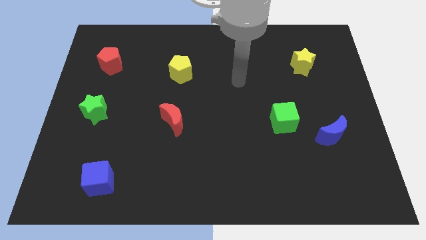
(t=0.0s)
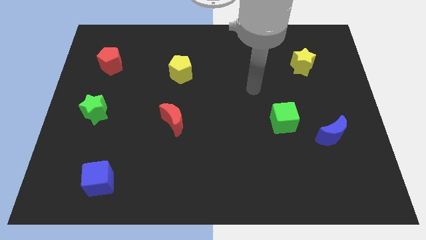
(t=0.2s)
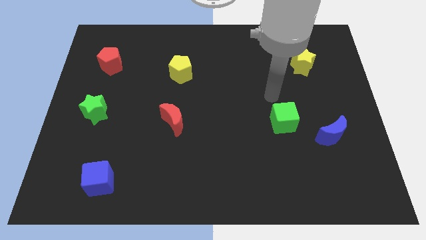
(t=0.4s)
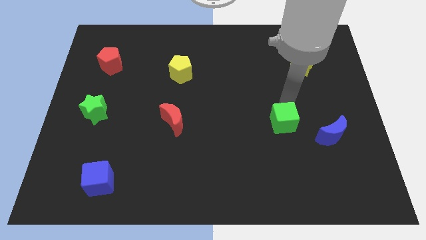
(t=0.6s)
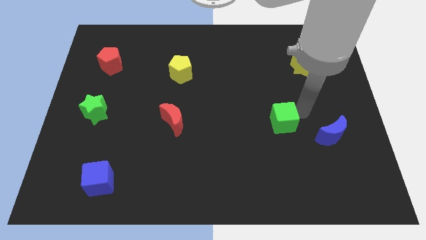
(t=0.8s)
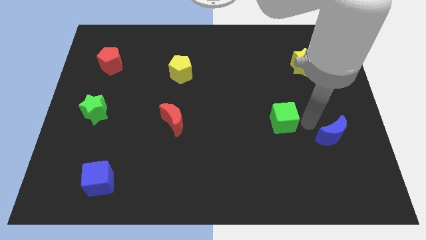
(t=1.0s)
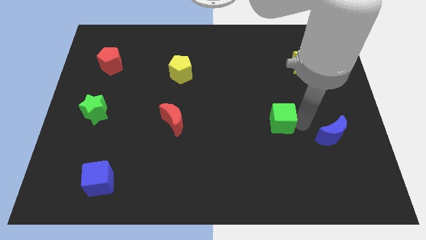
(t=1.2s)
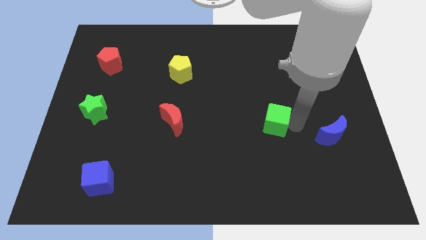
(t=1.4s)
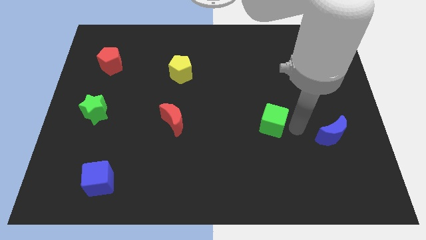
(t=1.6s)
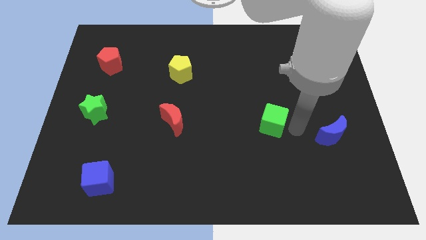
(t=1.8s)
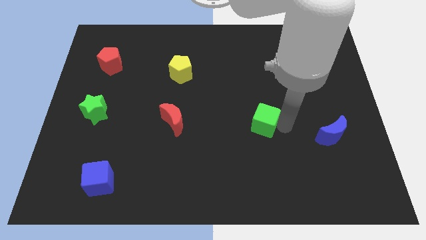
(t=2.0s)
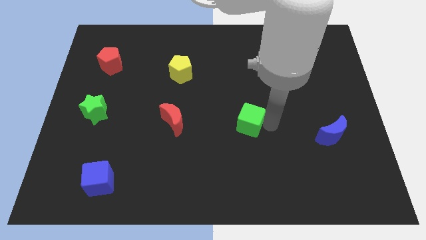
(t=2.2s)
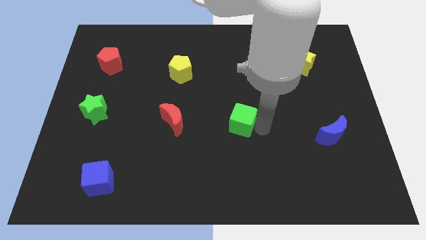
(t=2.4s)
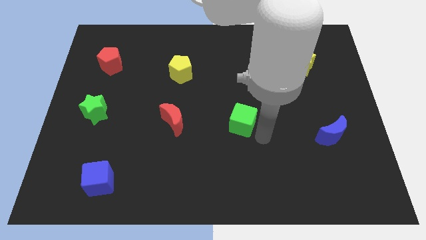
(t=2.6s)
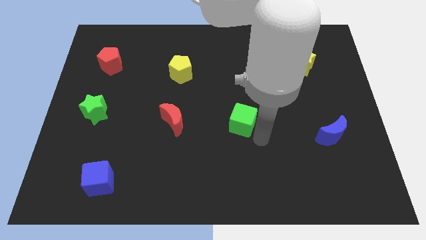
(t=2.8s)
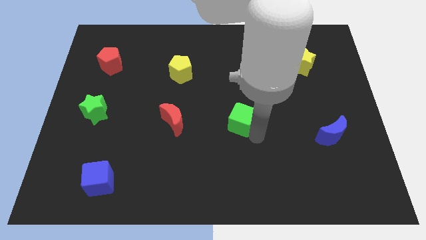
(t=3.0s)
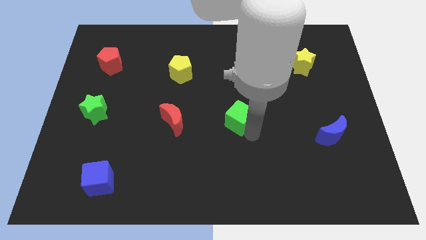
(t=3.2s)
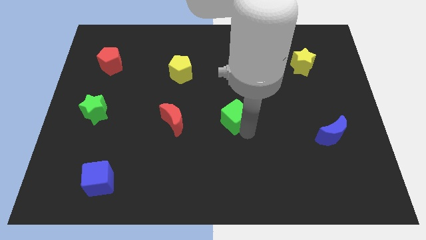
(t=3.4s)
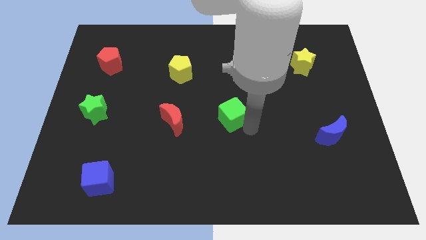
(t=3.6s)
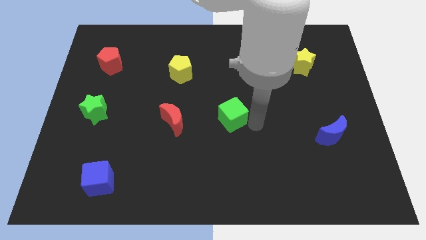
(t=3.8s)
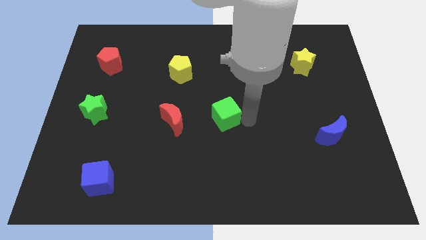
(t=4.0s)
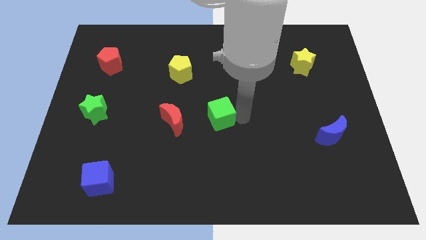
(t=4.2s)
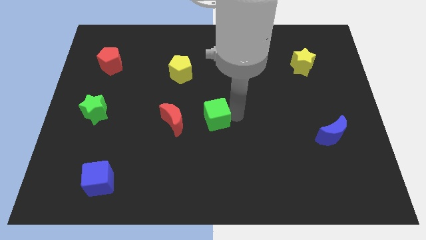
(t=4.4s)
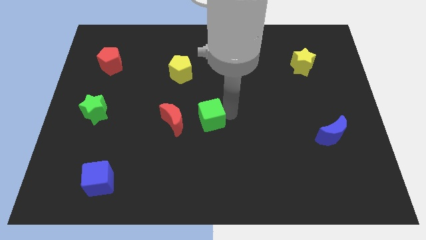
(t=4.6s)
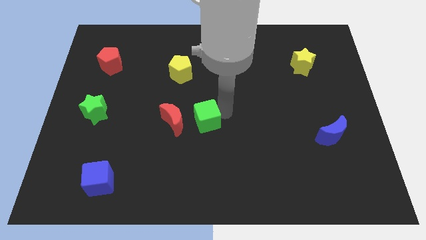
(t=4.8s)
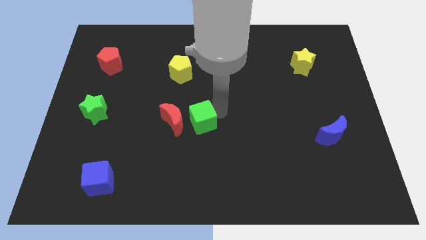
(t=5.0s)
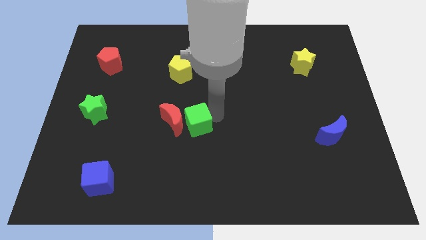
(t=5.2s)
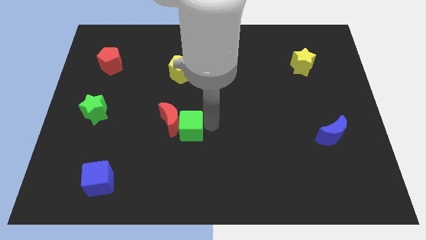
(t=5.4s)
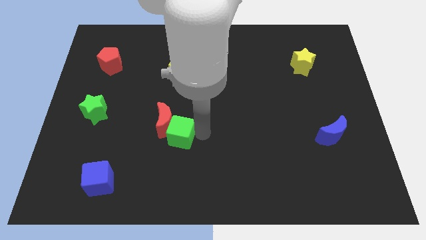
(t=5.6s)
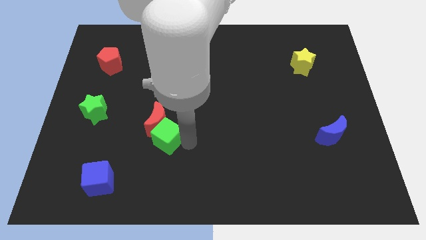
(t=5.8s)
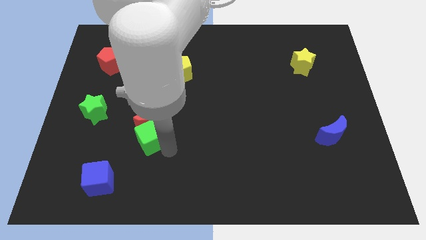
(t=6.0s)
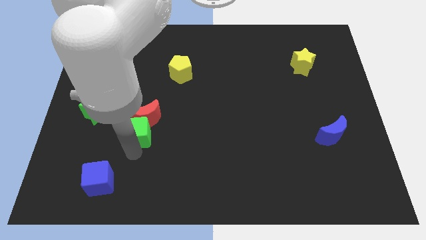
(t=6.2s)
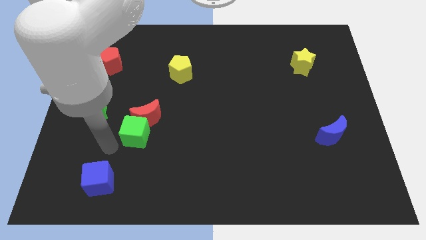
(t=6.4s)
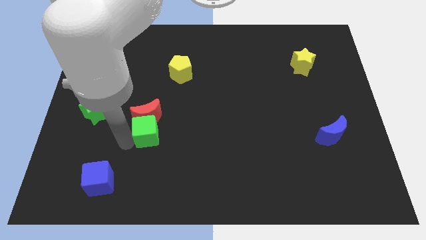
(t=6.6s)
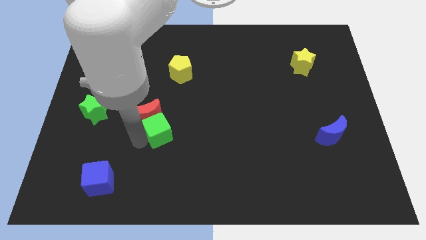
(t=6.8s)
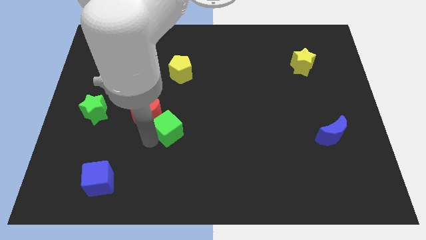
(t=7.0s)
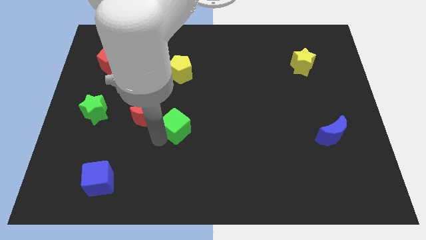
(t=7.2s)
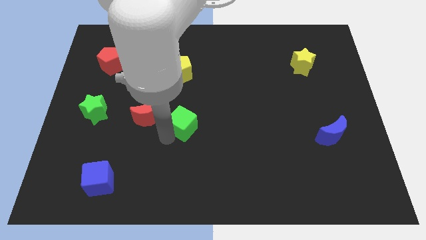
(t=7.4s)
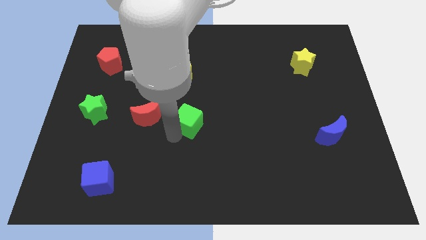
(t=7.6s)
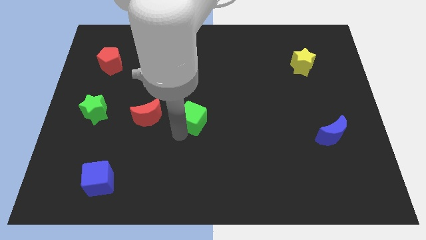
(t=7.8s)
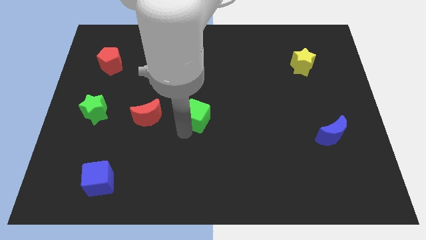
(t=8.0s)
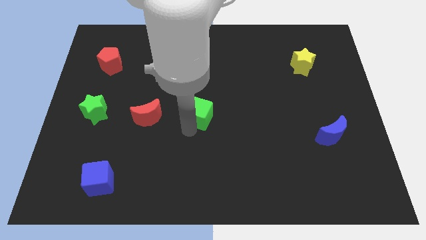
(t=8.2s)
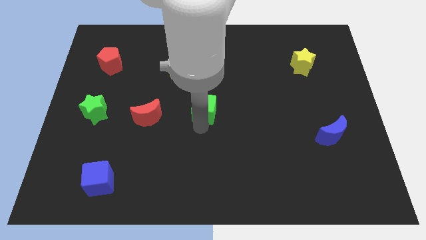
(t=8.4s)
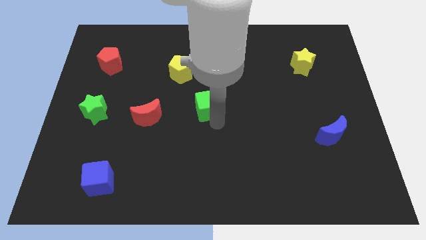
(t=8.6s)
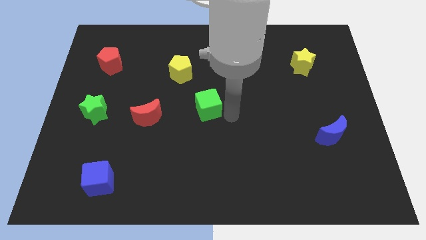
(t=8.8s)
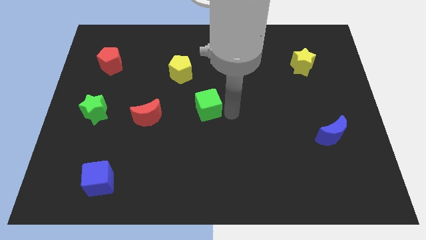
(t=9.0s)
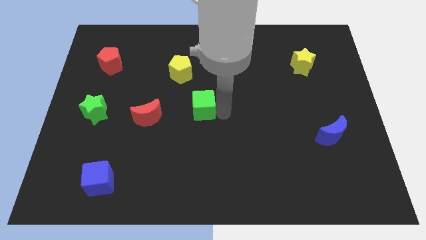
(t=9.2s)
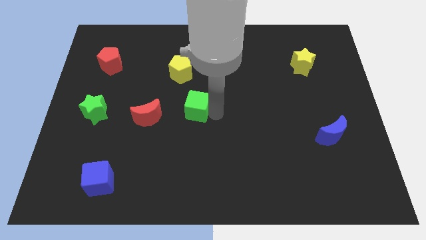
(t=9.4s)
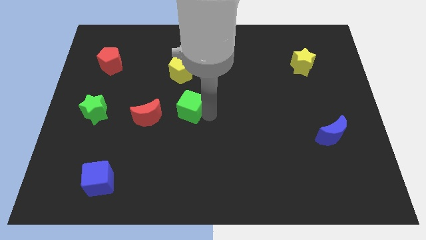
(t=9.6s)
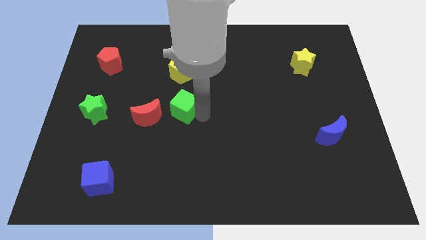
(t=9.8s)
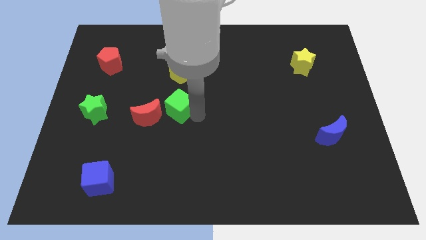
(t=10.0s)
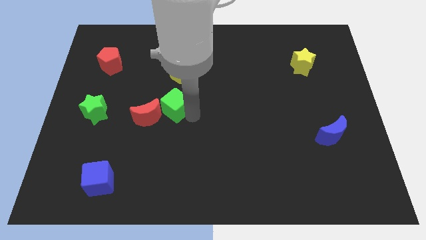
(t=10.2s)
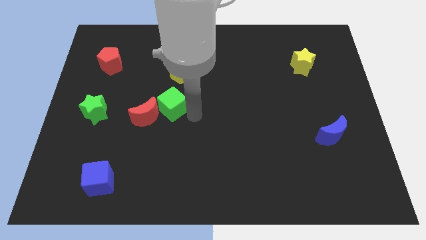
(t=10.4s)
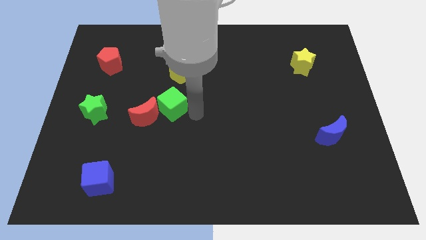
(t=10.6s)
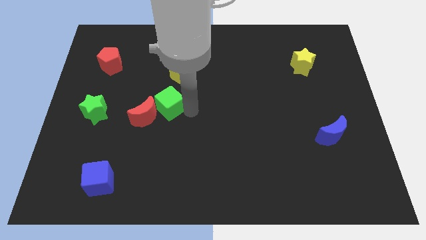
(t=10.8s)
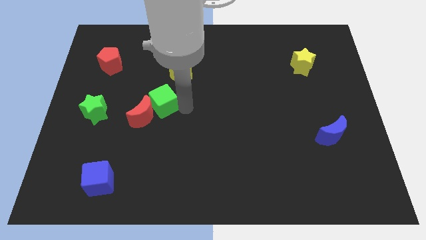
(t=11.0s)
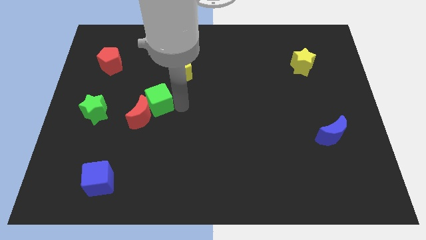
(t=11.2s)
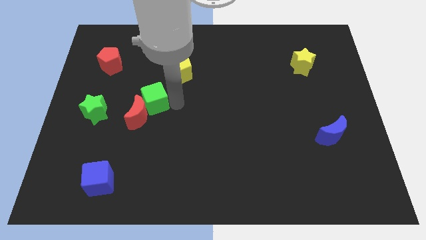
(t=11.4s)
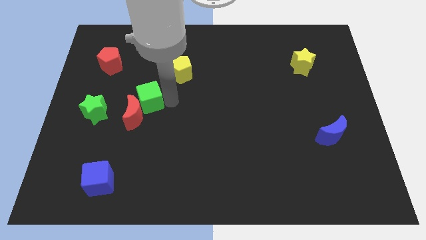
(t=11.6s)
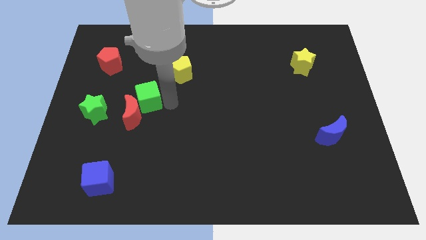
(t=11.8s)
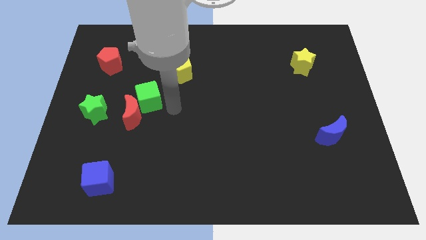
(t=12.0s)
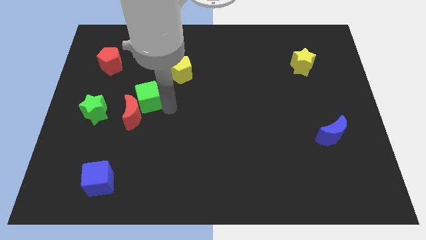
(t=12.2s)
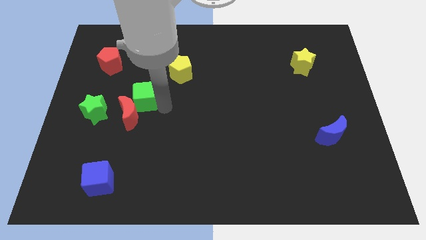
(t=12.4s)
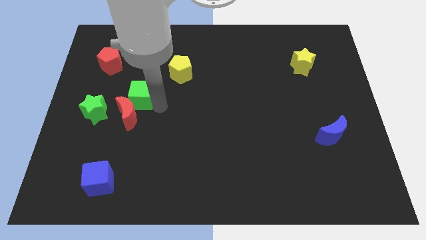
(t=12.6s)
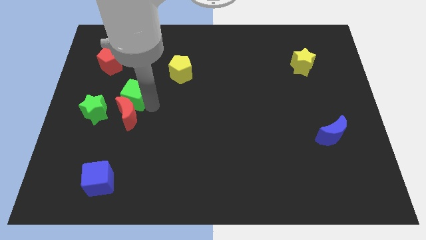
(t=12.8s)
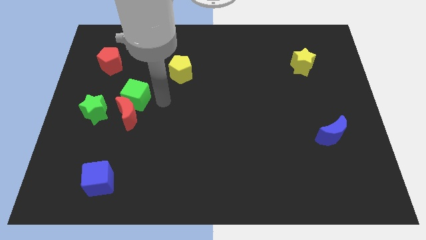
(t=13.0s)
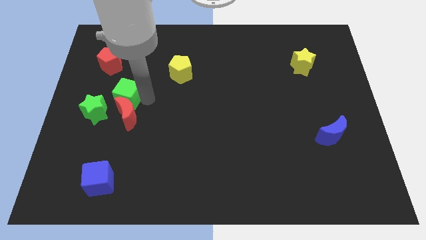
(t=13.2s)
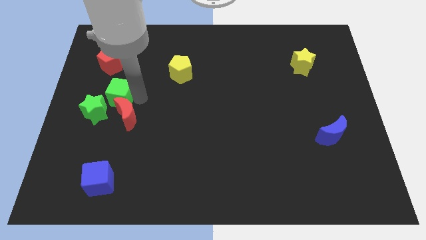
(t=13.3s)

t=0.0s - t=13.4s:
slide the green cube to the bottom side of the red pentagon

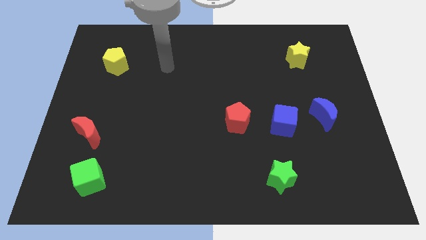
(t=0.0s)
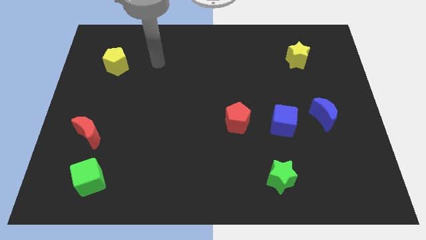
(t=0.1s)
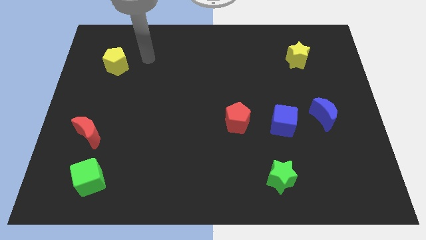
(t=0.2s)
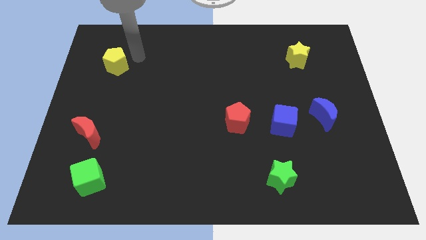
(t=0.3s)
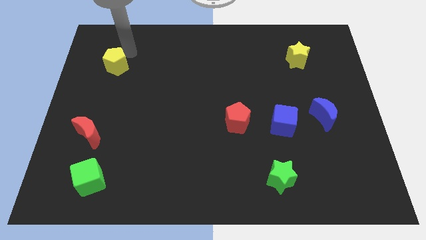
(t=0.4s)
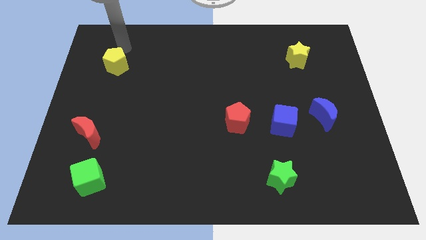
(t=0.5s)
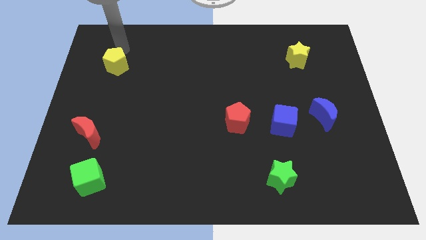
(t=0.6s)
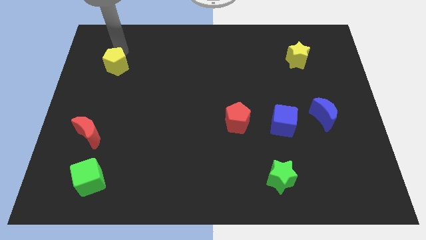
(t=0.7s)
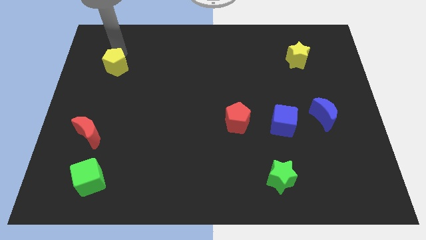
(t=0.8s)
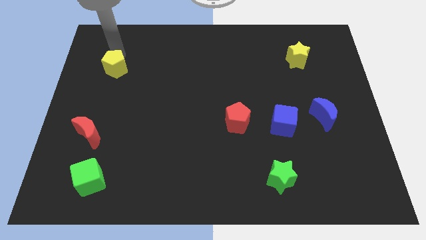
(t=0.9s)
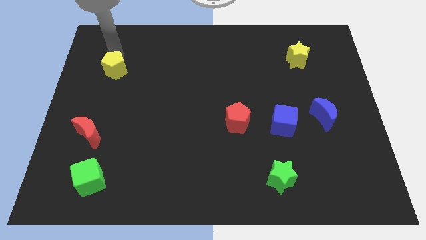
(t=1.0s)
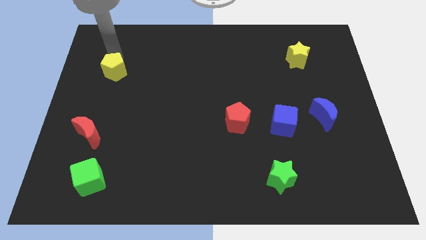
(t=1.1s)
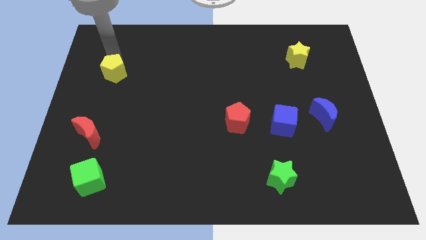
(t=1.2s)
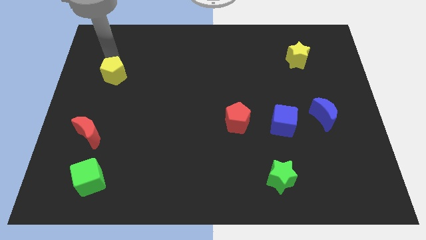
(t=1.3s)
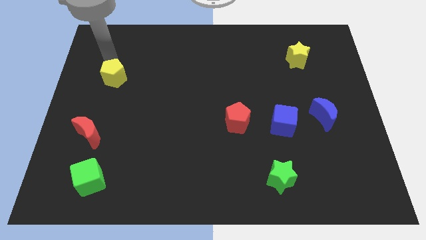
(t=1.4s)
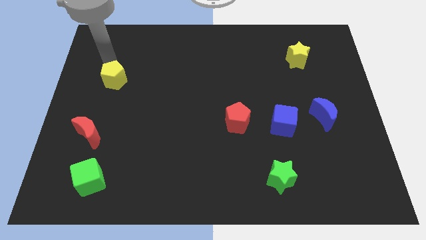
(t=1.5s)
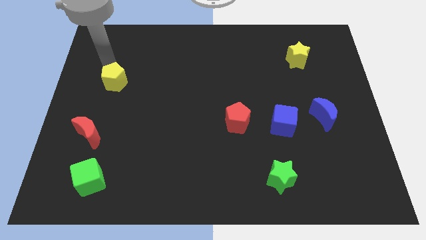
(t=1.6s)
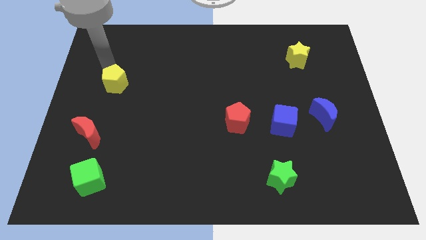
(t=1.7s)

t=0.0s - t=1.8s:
put the yellow pentagon above the red moon
